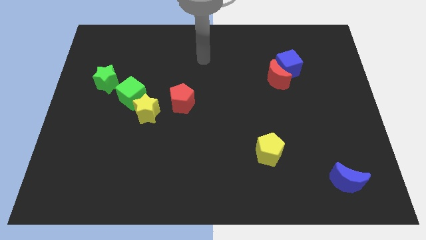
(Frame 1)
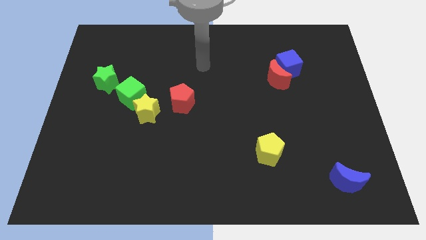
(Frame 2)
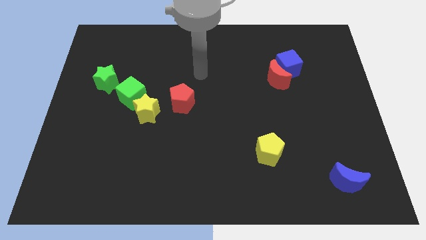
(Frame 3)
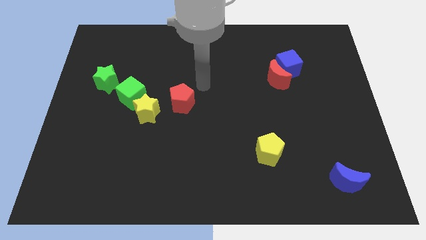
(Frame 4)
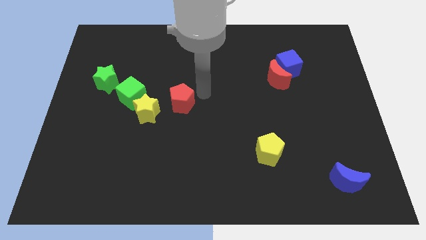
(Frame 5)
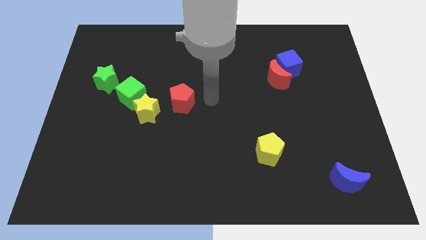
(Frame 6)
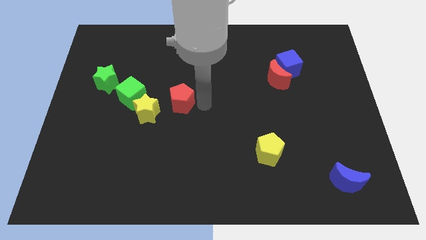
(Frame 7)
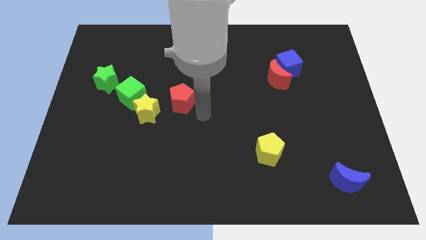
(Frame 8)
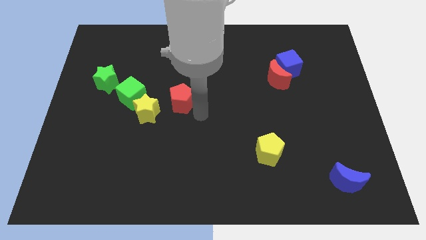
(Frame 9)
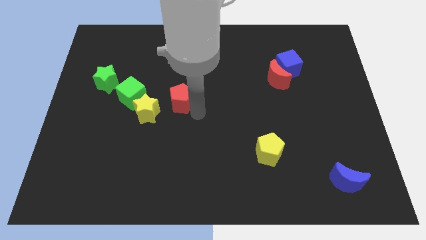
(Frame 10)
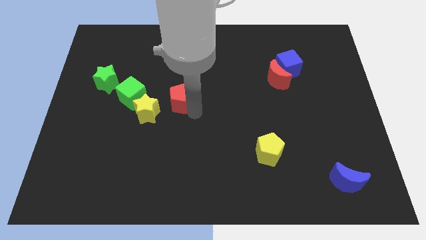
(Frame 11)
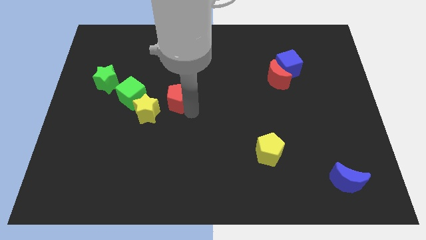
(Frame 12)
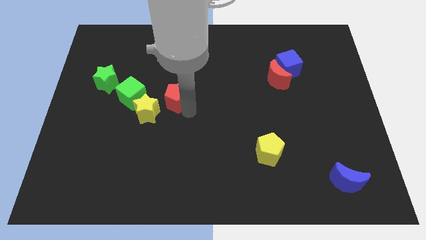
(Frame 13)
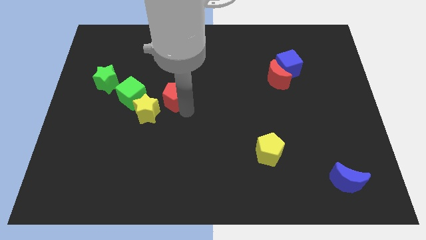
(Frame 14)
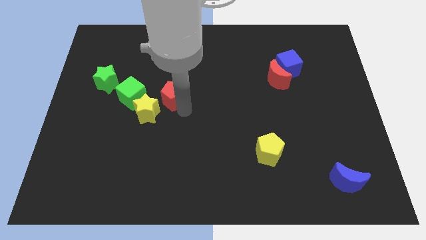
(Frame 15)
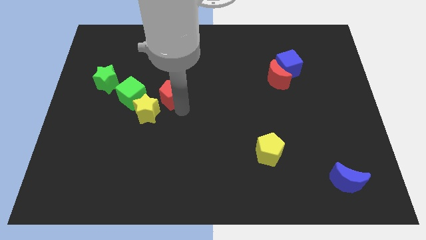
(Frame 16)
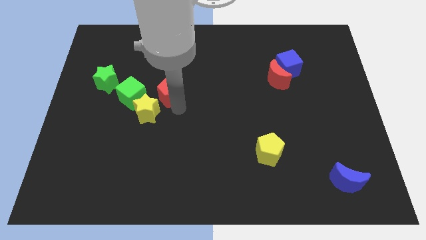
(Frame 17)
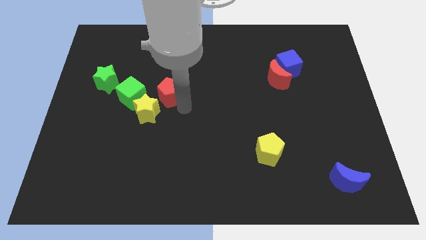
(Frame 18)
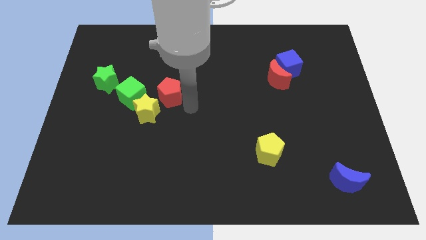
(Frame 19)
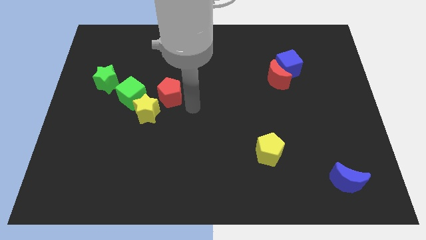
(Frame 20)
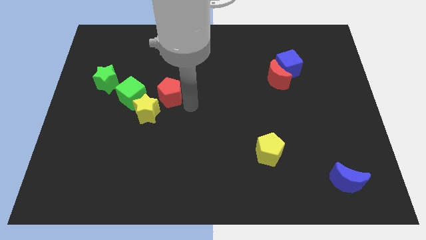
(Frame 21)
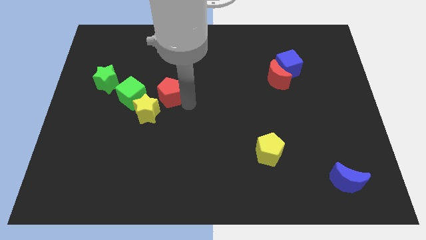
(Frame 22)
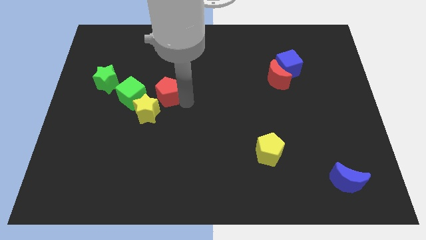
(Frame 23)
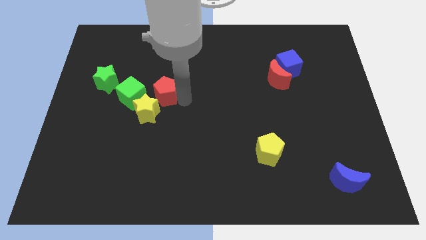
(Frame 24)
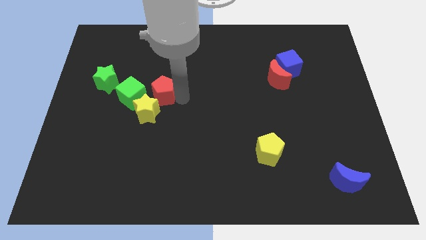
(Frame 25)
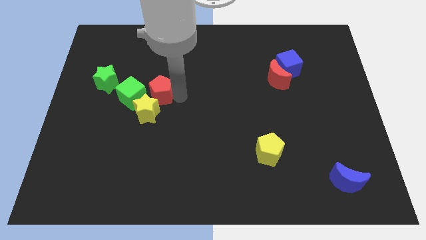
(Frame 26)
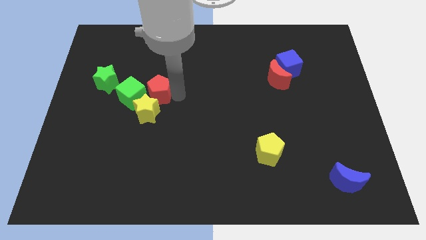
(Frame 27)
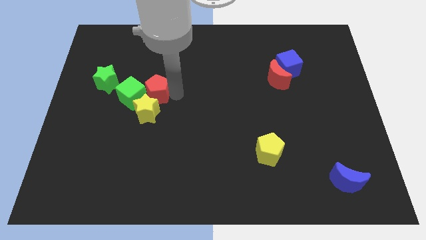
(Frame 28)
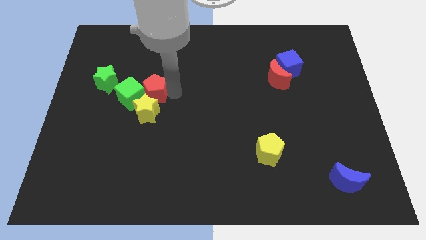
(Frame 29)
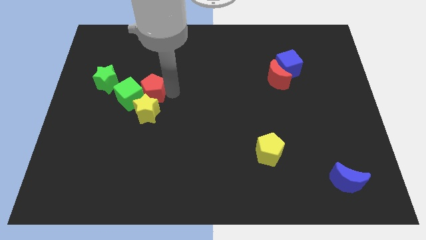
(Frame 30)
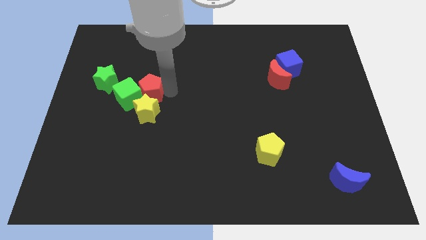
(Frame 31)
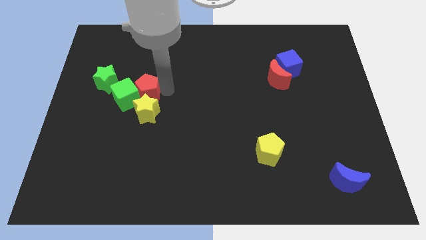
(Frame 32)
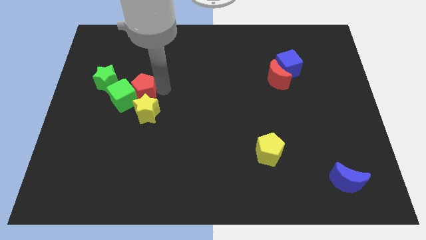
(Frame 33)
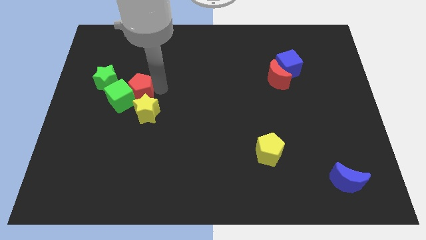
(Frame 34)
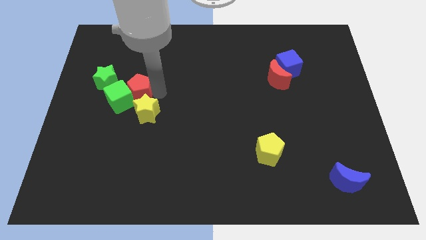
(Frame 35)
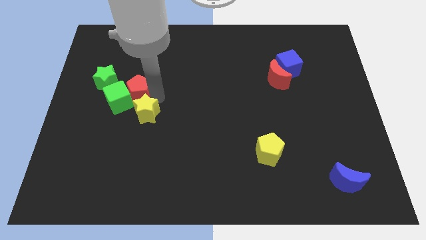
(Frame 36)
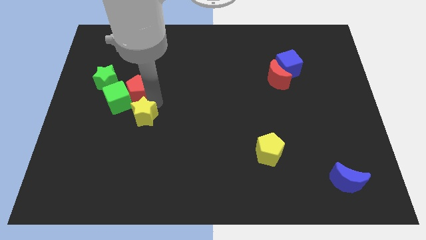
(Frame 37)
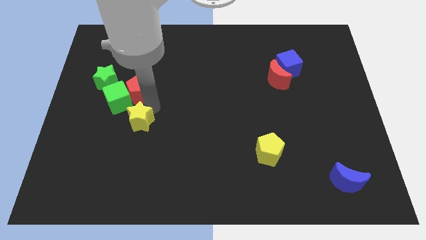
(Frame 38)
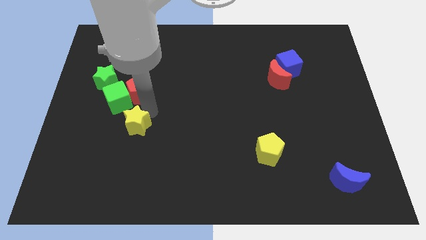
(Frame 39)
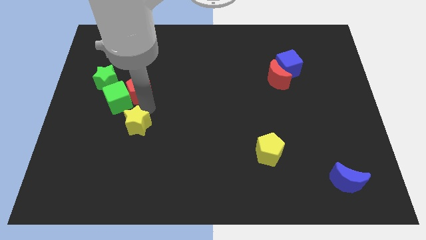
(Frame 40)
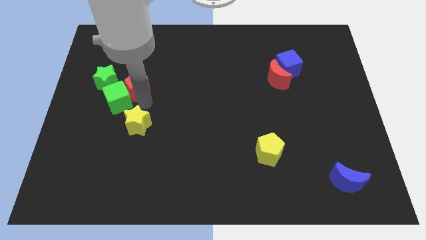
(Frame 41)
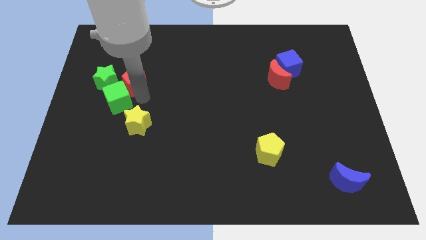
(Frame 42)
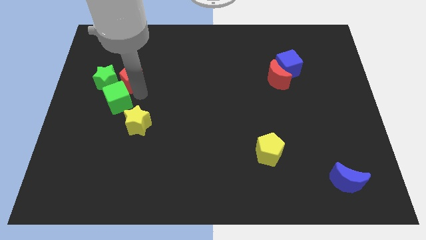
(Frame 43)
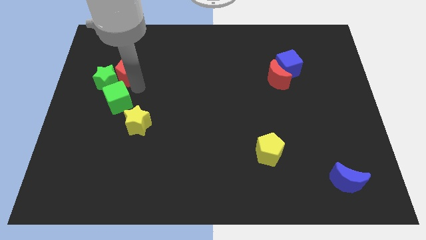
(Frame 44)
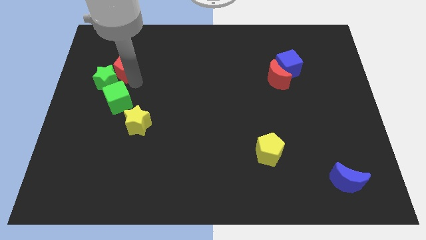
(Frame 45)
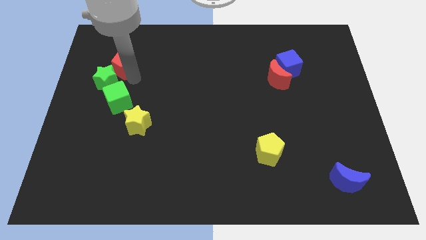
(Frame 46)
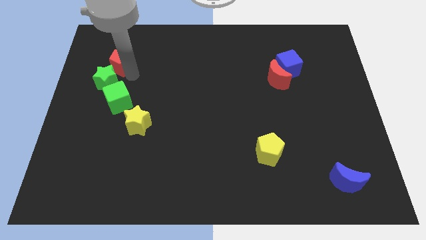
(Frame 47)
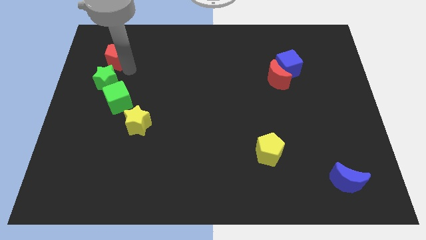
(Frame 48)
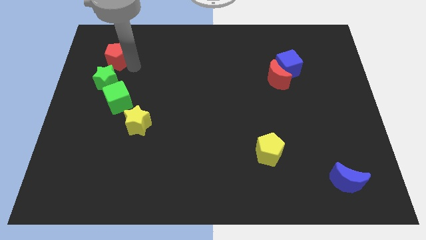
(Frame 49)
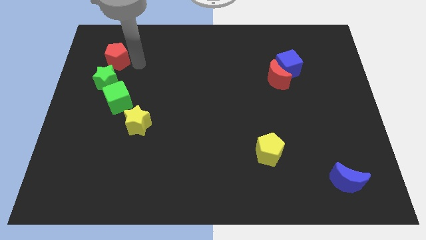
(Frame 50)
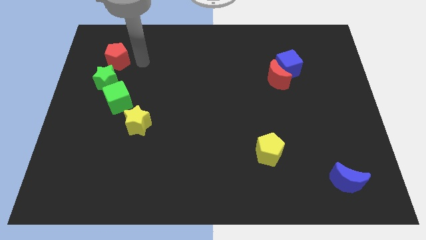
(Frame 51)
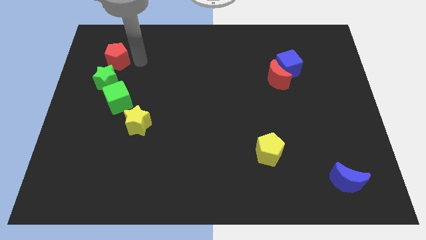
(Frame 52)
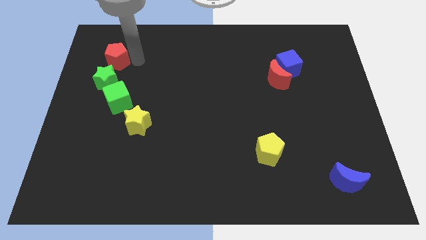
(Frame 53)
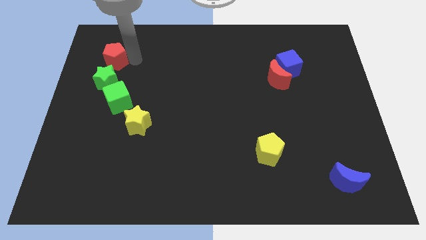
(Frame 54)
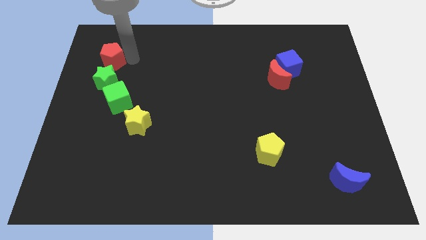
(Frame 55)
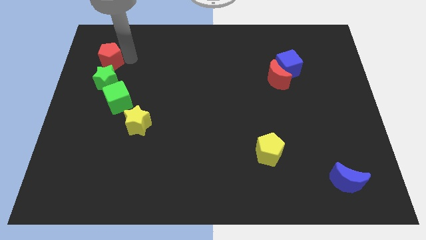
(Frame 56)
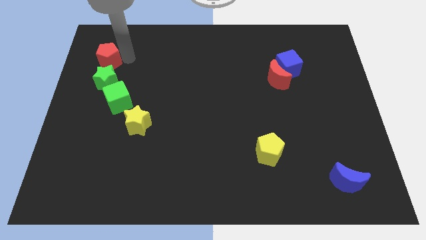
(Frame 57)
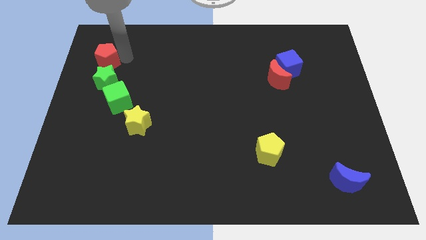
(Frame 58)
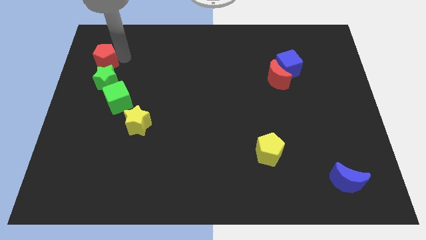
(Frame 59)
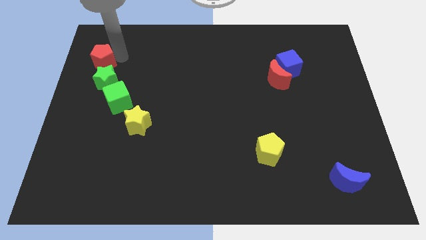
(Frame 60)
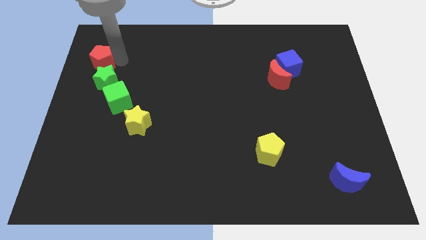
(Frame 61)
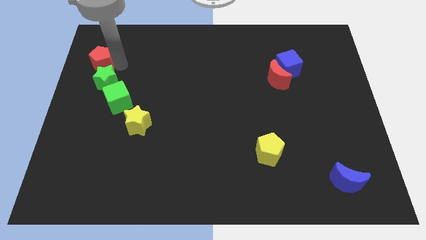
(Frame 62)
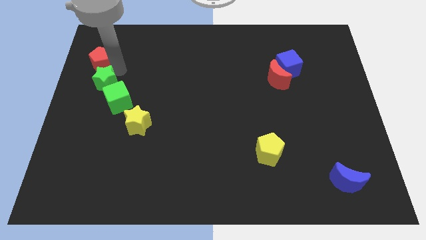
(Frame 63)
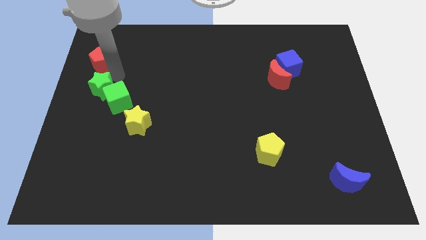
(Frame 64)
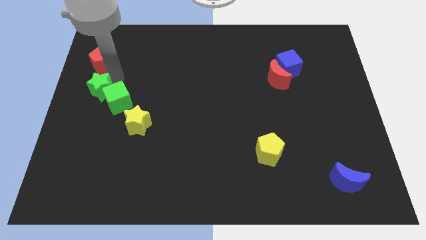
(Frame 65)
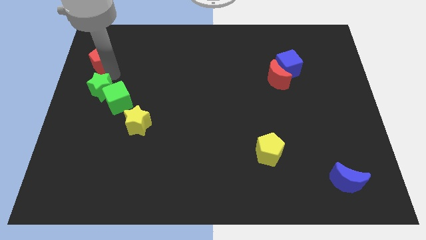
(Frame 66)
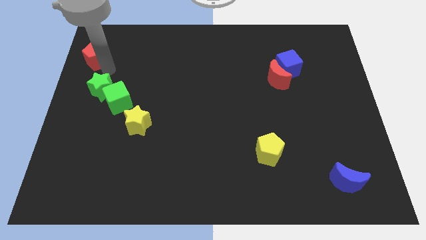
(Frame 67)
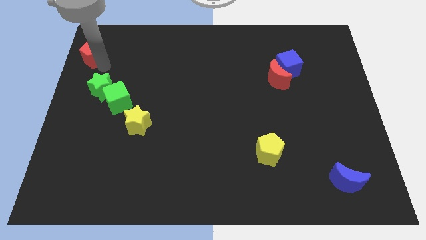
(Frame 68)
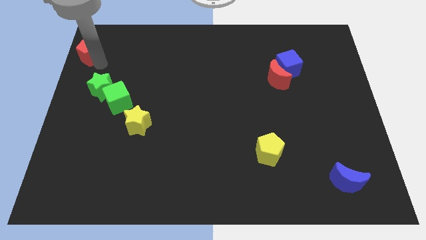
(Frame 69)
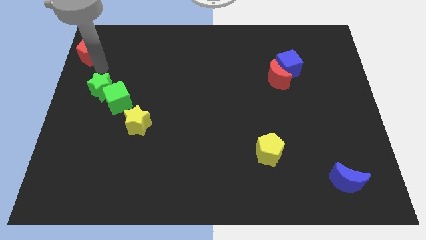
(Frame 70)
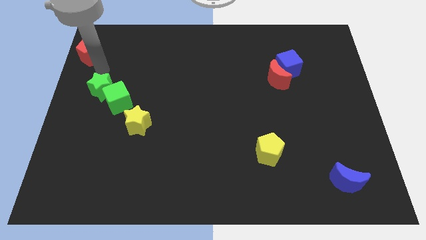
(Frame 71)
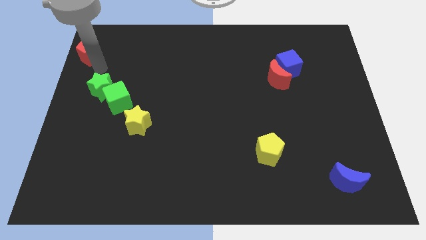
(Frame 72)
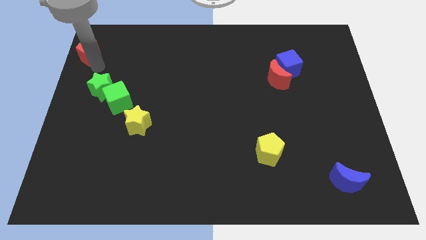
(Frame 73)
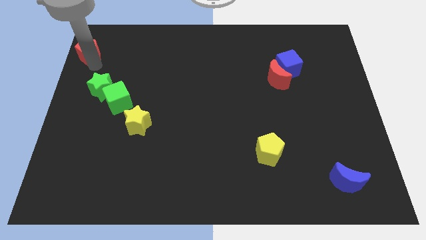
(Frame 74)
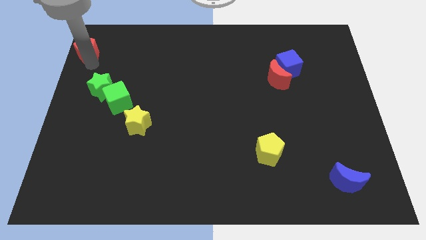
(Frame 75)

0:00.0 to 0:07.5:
put the red pentagon to the top left
